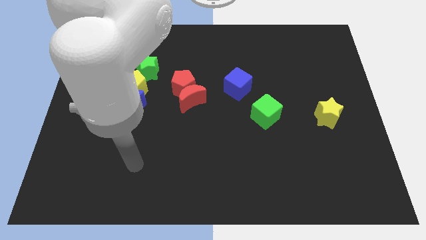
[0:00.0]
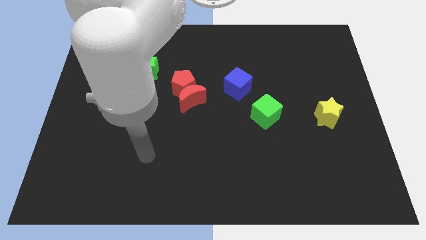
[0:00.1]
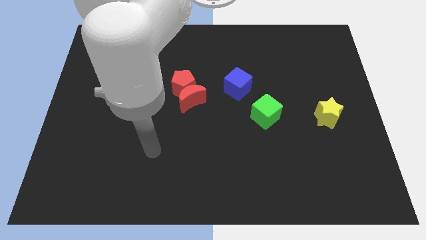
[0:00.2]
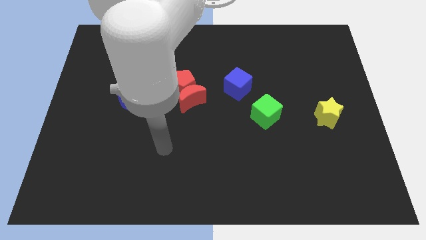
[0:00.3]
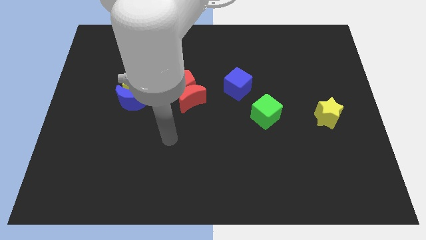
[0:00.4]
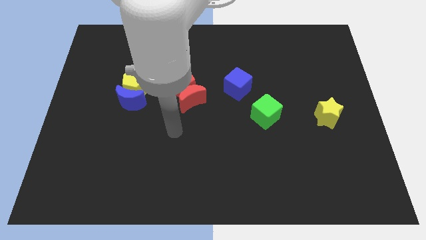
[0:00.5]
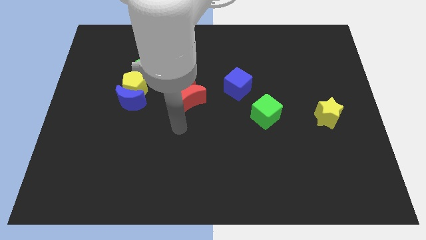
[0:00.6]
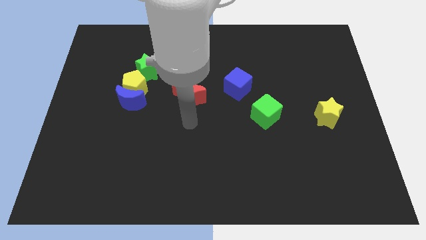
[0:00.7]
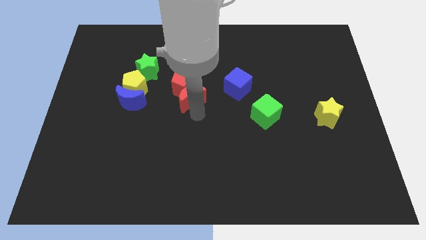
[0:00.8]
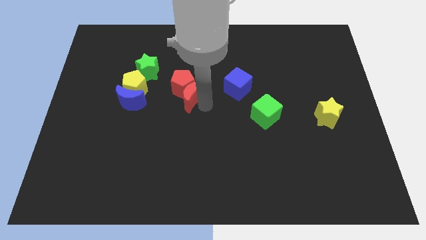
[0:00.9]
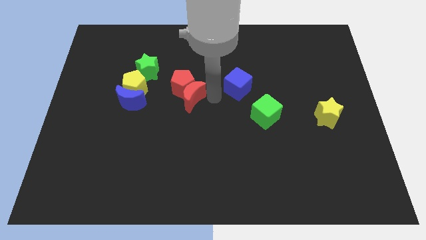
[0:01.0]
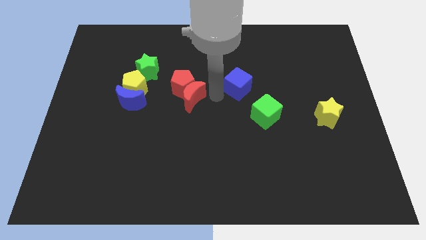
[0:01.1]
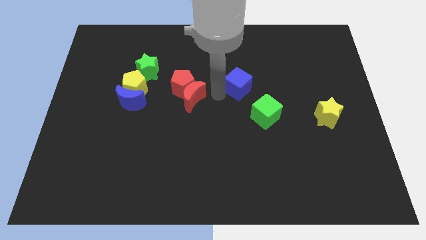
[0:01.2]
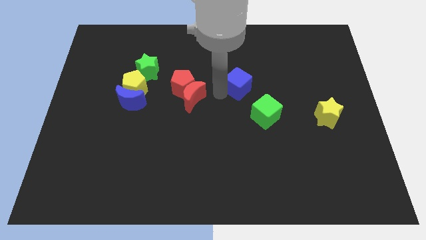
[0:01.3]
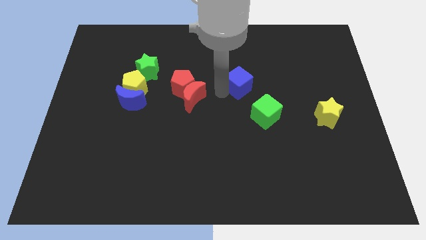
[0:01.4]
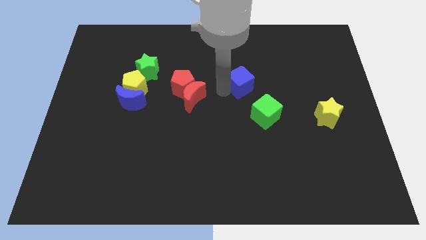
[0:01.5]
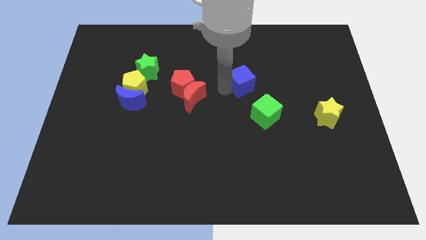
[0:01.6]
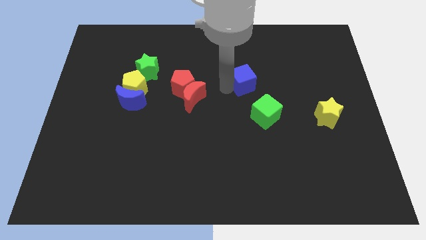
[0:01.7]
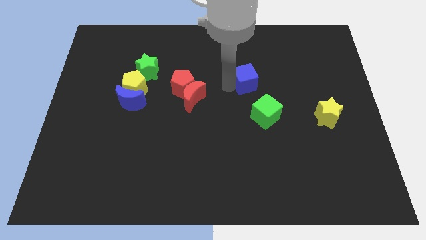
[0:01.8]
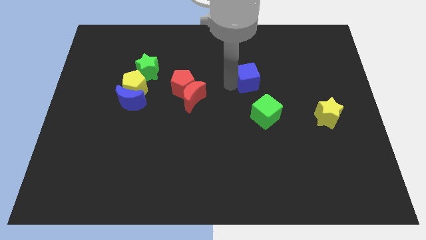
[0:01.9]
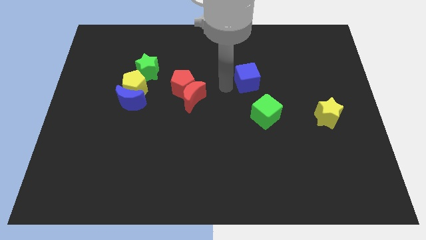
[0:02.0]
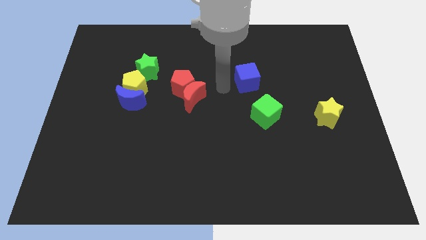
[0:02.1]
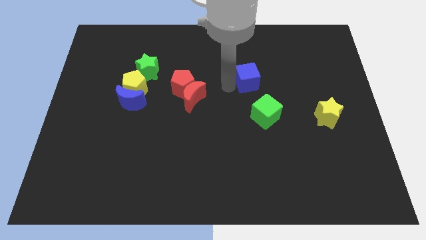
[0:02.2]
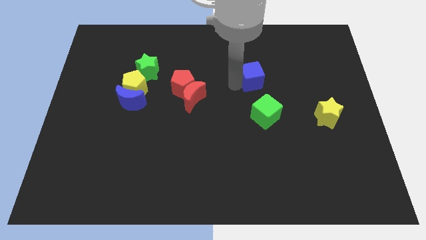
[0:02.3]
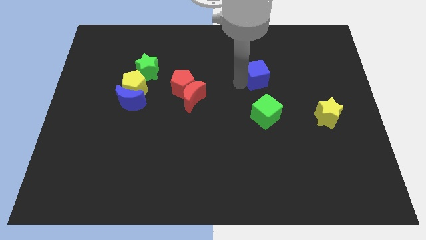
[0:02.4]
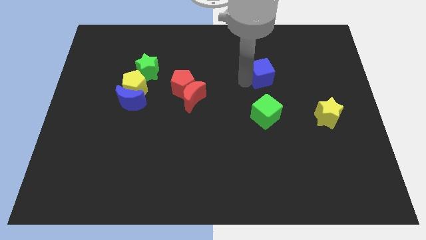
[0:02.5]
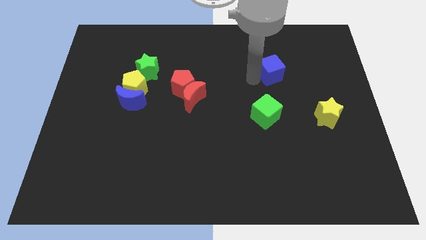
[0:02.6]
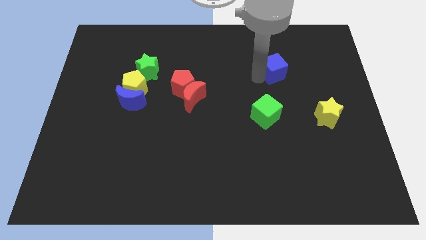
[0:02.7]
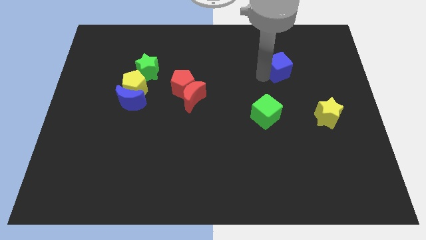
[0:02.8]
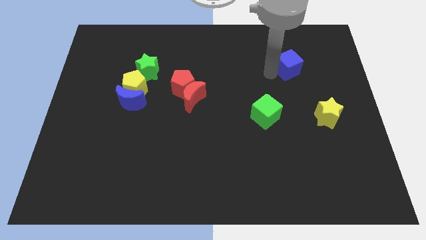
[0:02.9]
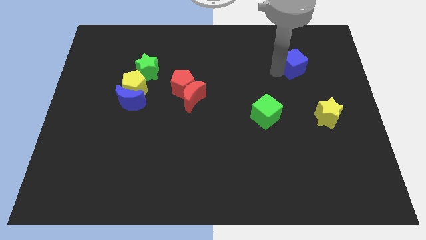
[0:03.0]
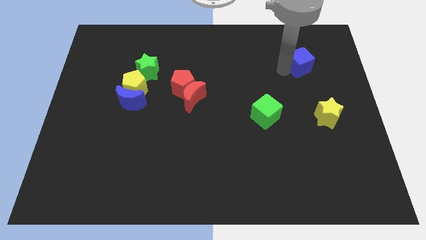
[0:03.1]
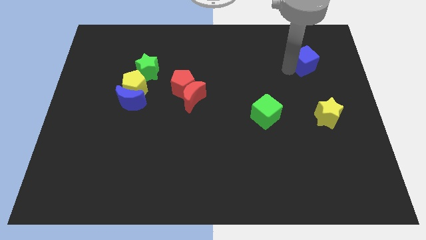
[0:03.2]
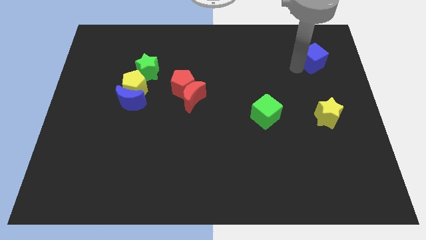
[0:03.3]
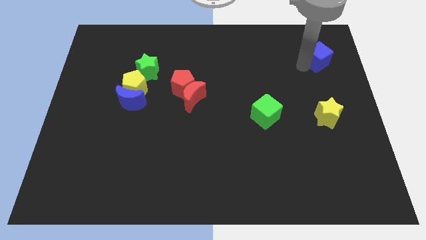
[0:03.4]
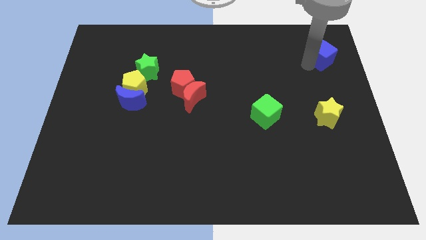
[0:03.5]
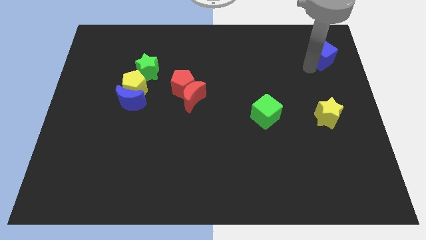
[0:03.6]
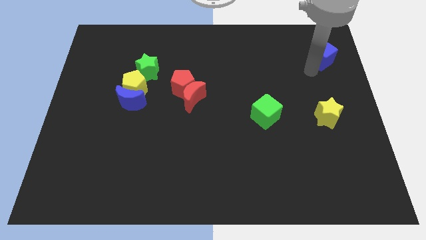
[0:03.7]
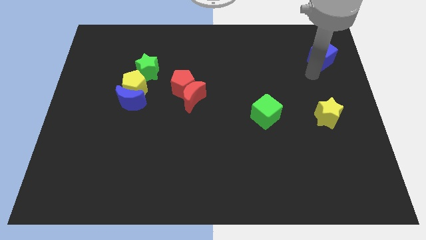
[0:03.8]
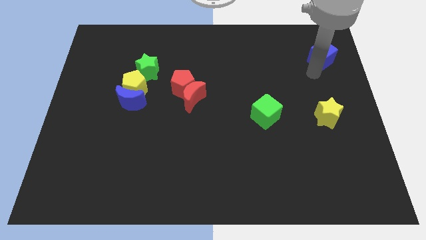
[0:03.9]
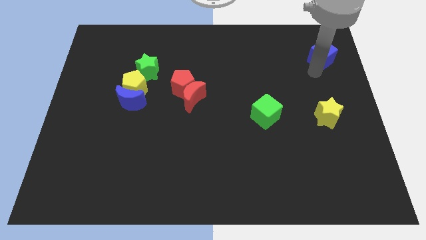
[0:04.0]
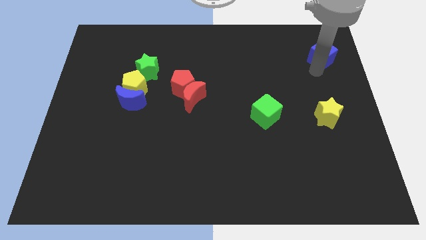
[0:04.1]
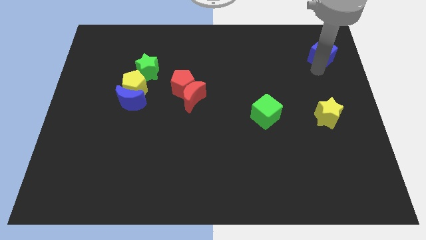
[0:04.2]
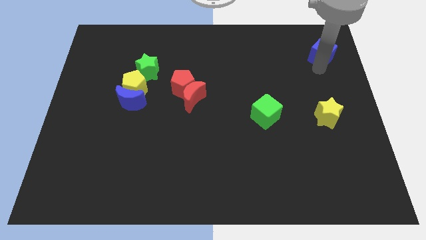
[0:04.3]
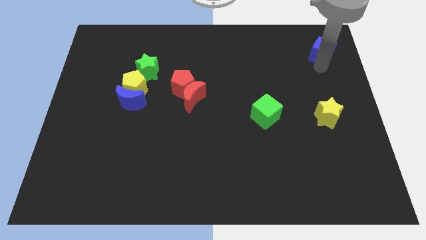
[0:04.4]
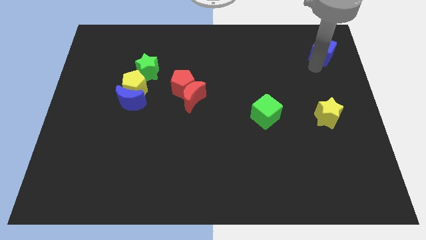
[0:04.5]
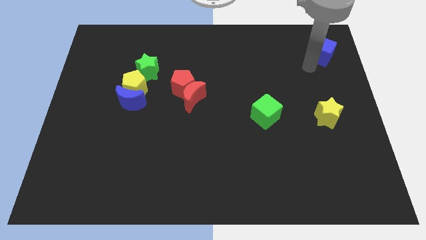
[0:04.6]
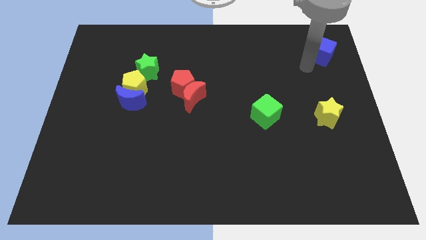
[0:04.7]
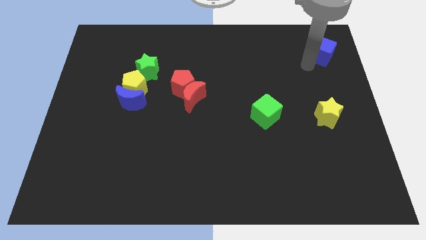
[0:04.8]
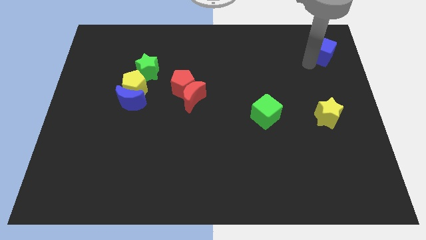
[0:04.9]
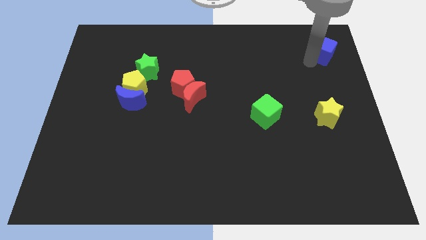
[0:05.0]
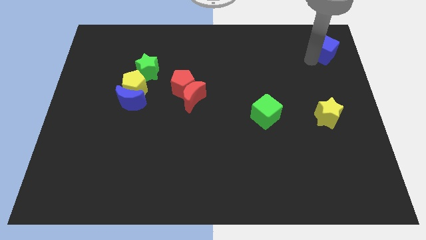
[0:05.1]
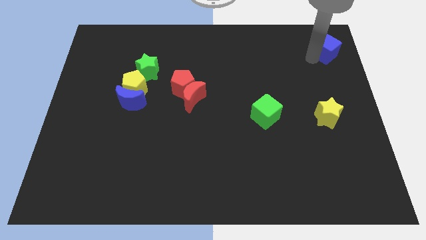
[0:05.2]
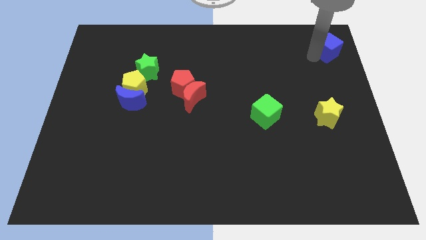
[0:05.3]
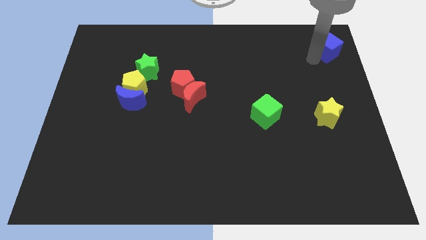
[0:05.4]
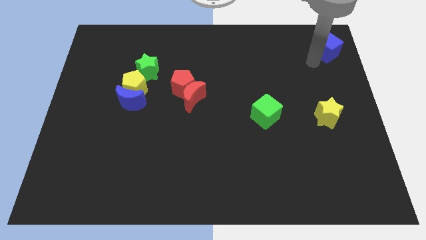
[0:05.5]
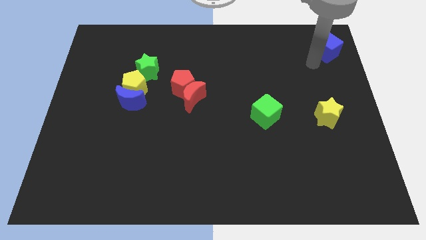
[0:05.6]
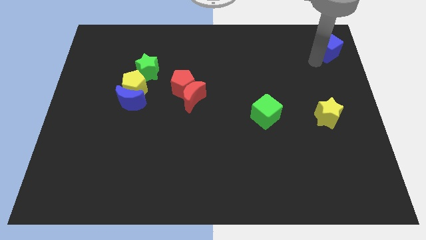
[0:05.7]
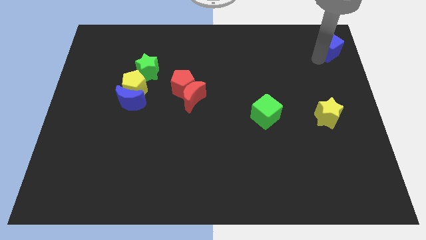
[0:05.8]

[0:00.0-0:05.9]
push the blue cube to the top right of the board

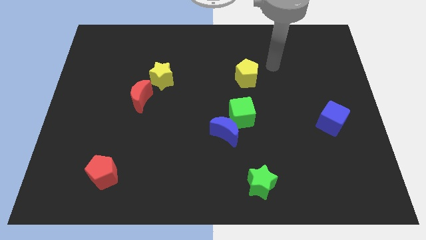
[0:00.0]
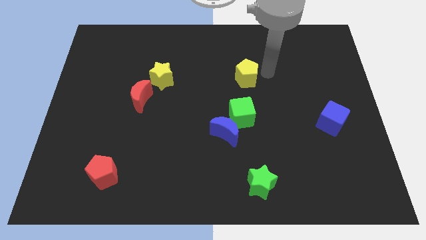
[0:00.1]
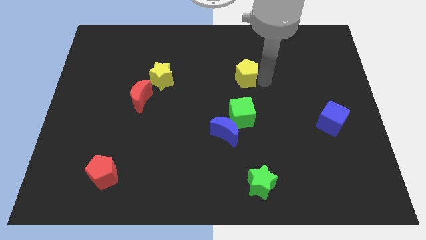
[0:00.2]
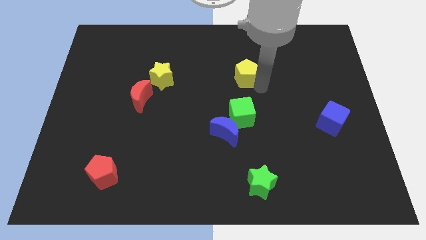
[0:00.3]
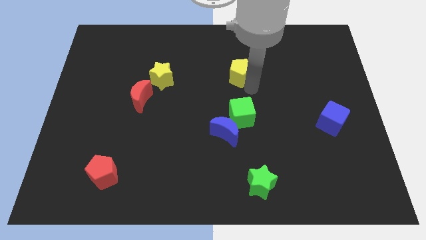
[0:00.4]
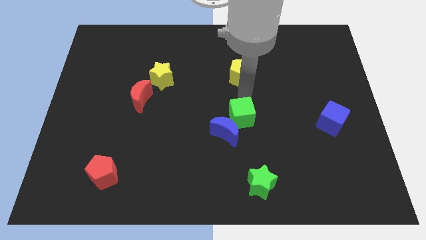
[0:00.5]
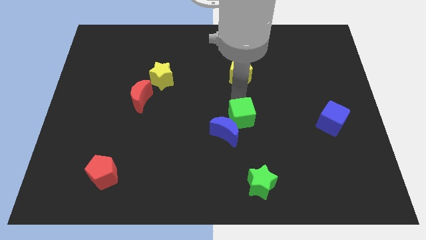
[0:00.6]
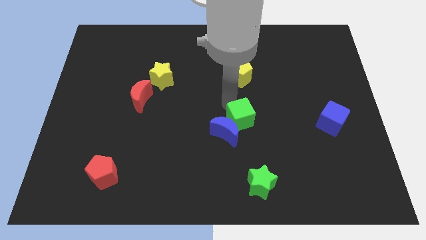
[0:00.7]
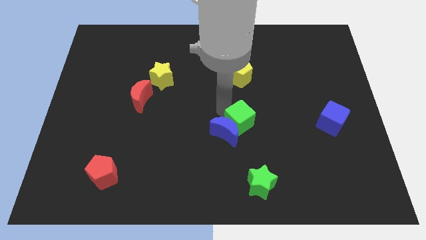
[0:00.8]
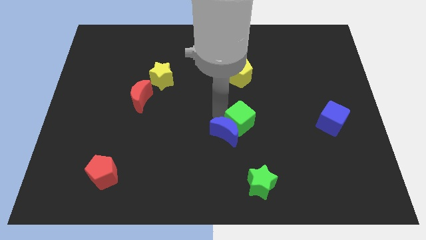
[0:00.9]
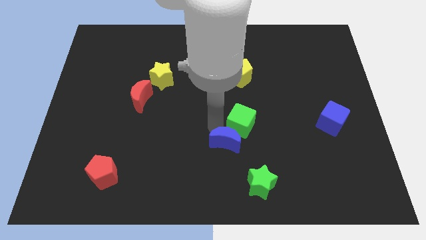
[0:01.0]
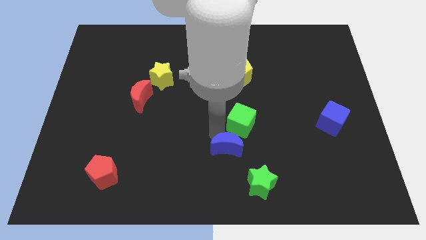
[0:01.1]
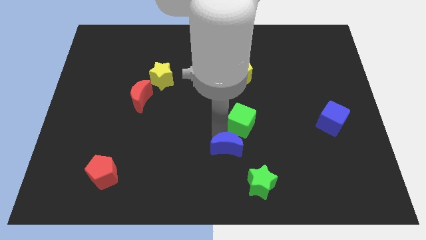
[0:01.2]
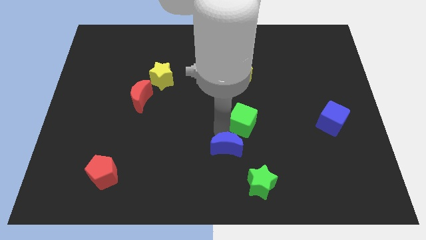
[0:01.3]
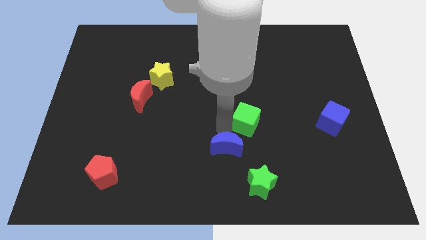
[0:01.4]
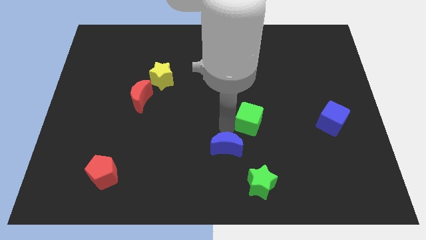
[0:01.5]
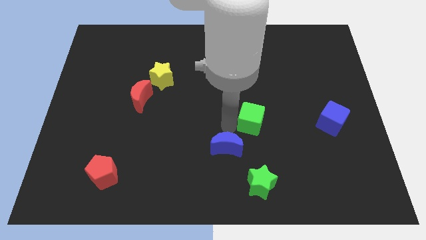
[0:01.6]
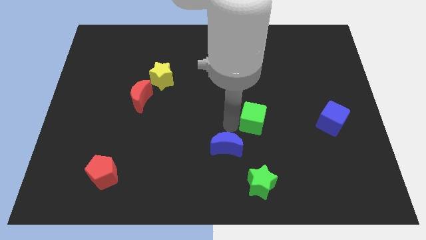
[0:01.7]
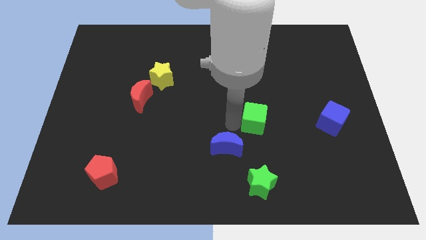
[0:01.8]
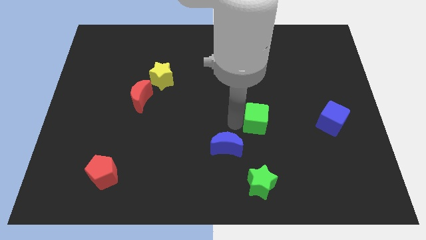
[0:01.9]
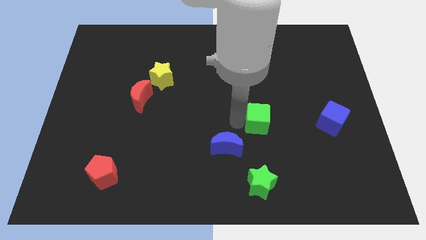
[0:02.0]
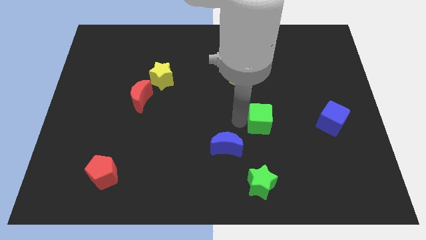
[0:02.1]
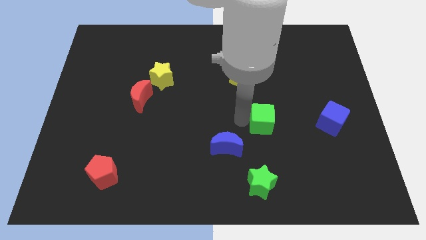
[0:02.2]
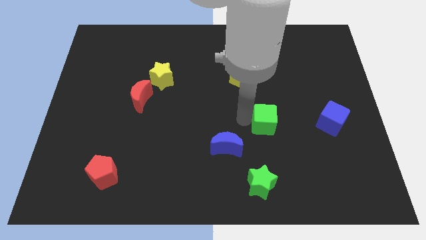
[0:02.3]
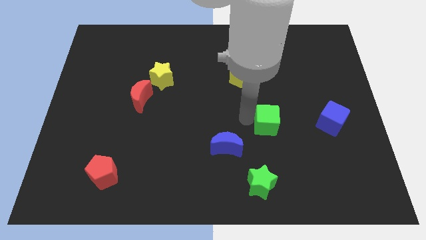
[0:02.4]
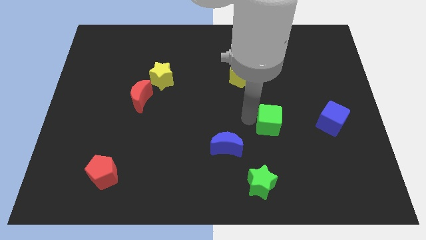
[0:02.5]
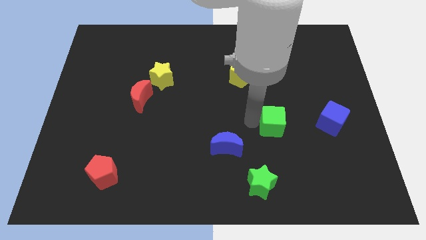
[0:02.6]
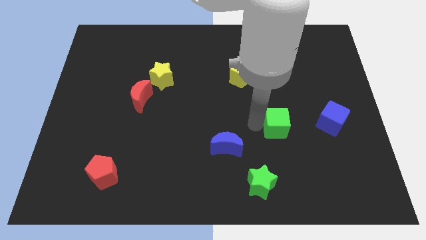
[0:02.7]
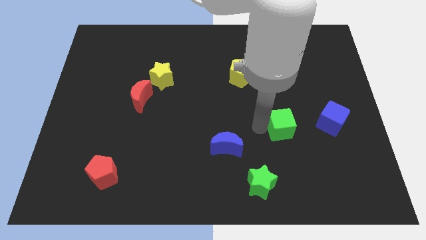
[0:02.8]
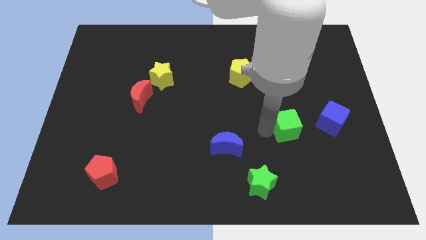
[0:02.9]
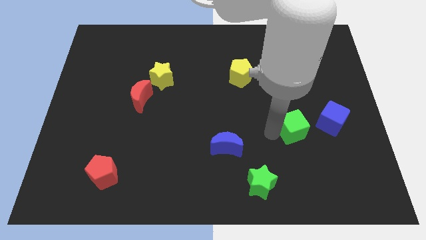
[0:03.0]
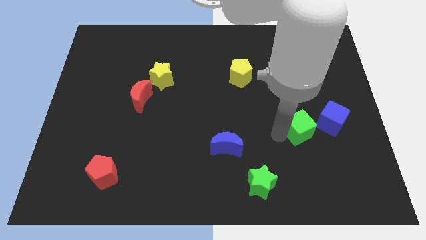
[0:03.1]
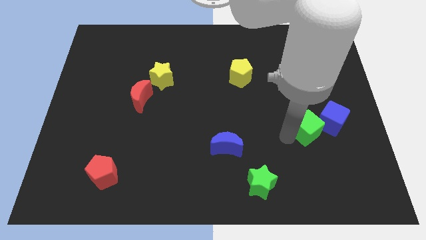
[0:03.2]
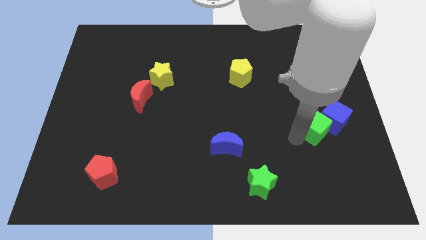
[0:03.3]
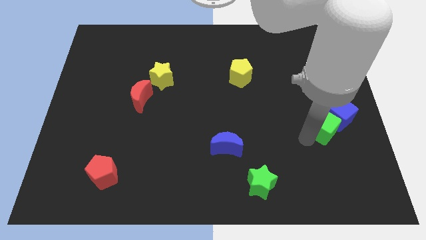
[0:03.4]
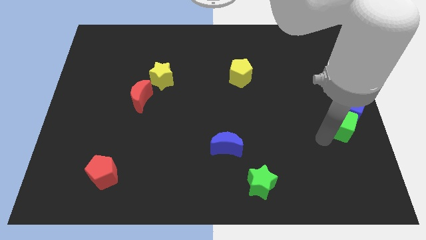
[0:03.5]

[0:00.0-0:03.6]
push the green cube to the right side
